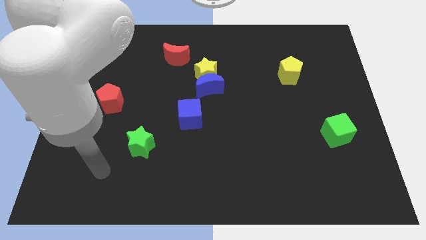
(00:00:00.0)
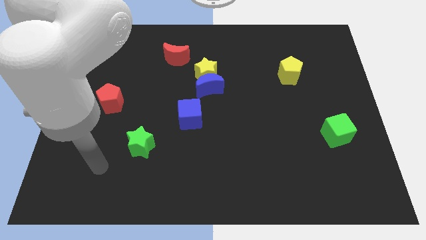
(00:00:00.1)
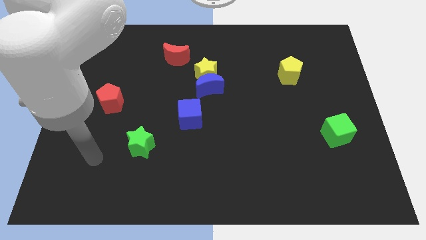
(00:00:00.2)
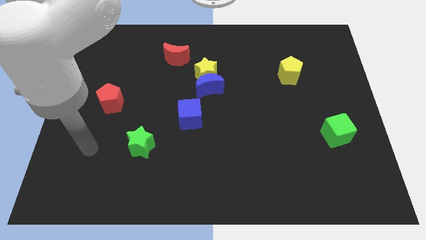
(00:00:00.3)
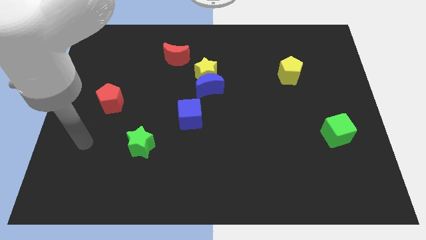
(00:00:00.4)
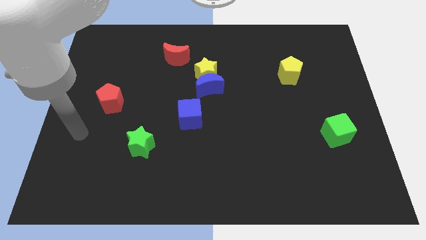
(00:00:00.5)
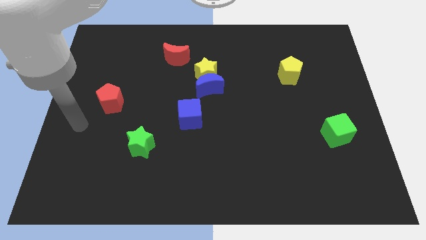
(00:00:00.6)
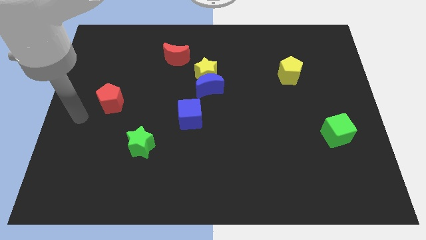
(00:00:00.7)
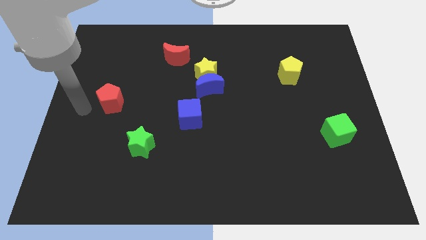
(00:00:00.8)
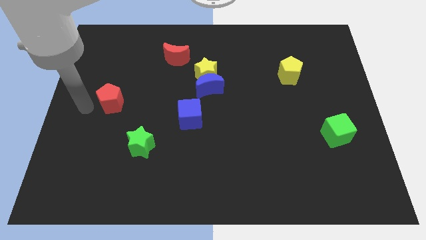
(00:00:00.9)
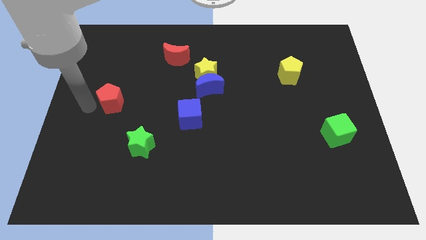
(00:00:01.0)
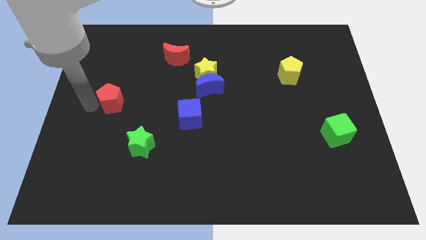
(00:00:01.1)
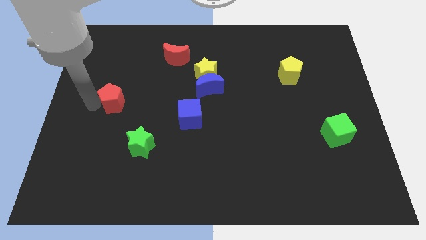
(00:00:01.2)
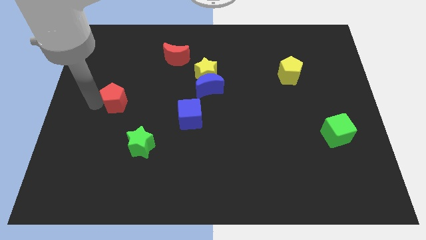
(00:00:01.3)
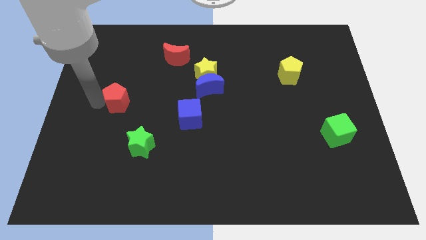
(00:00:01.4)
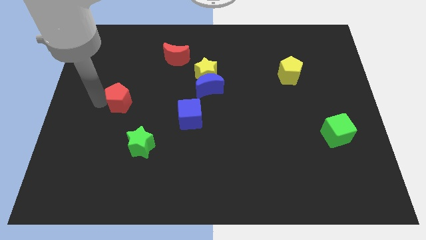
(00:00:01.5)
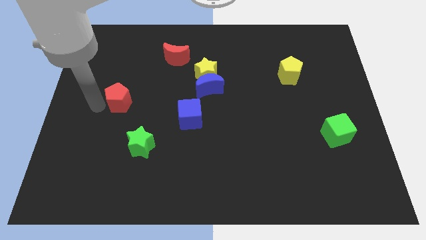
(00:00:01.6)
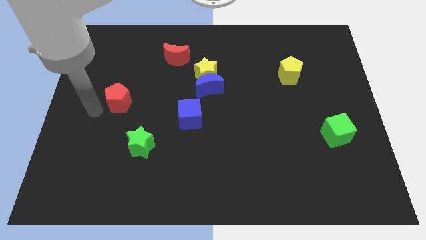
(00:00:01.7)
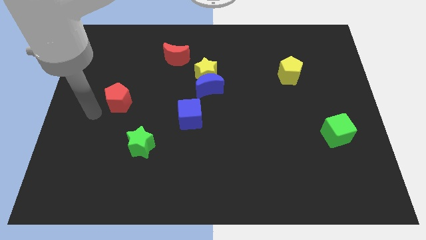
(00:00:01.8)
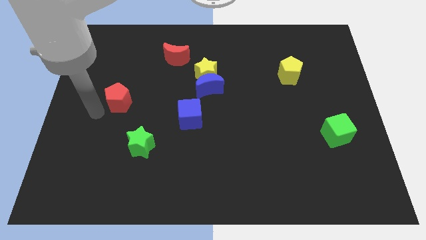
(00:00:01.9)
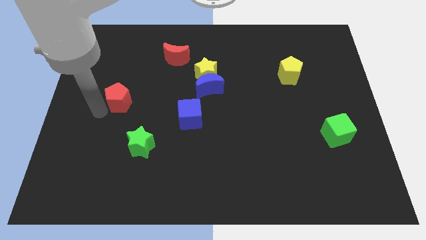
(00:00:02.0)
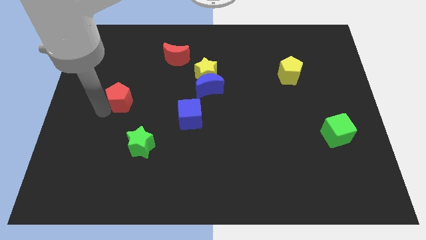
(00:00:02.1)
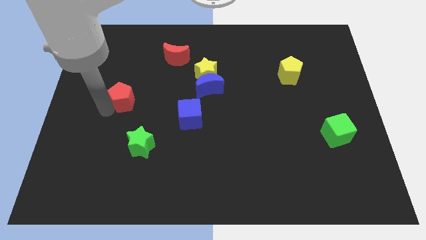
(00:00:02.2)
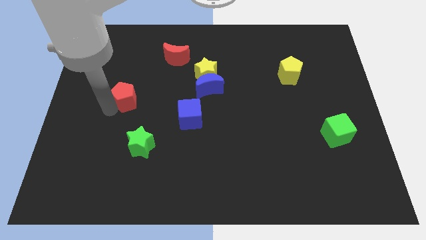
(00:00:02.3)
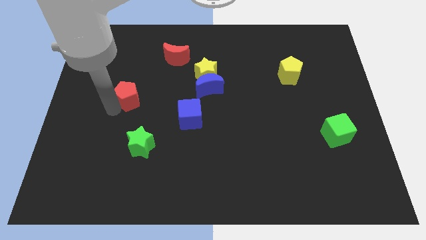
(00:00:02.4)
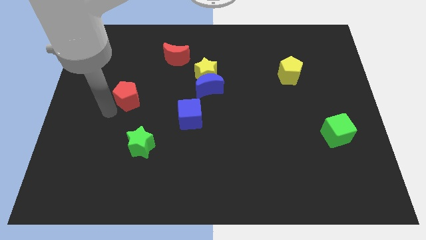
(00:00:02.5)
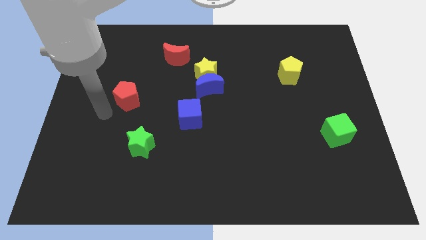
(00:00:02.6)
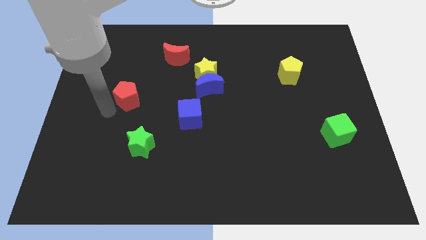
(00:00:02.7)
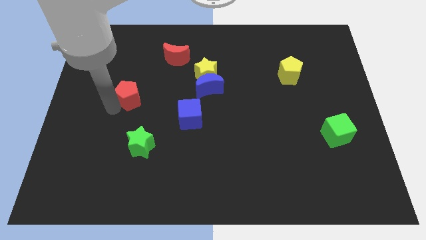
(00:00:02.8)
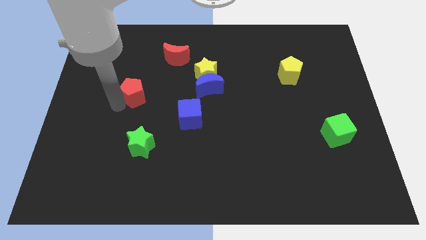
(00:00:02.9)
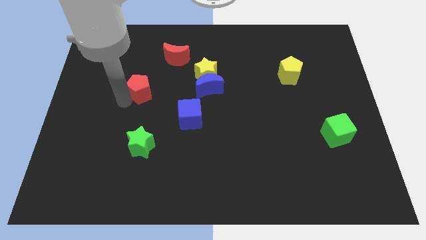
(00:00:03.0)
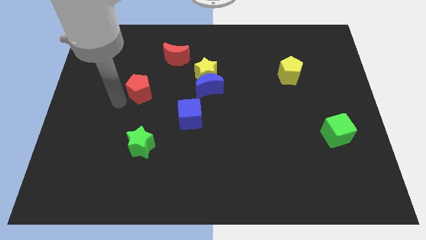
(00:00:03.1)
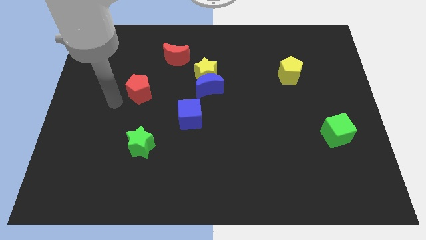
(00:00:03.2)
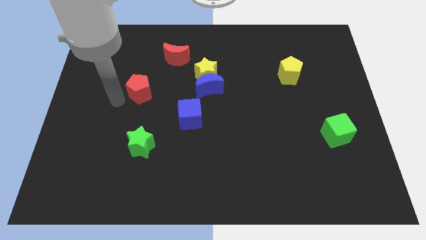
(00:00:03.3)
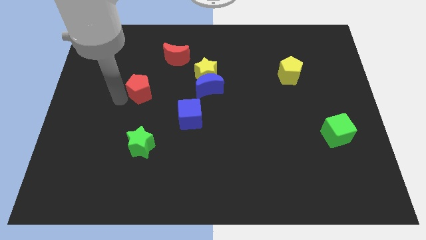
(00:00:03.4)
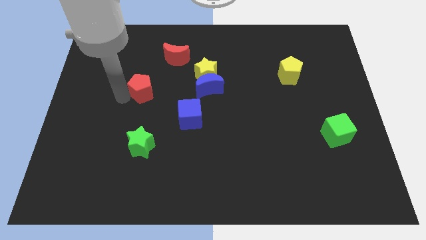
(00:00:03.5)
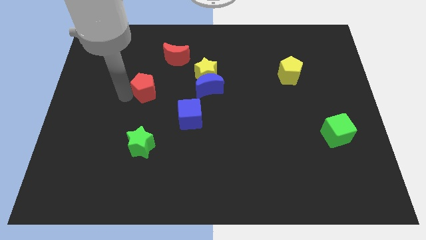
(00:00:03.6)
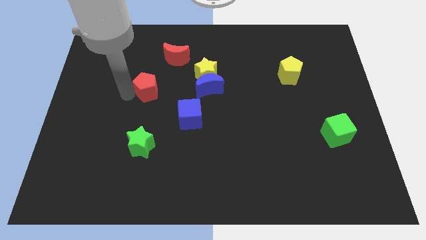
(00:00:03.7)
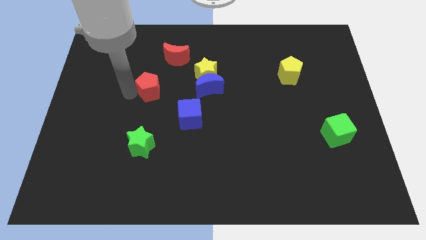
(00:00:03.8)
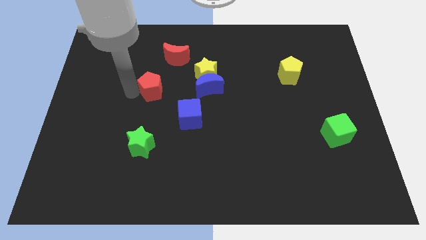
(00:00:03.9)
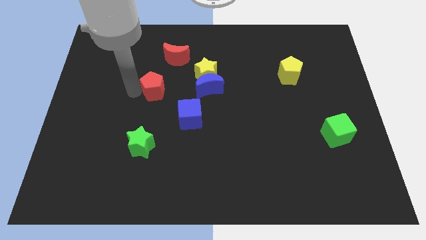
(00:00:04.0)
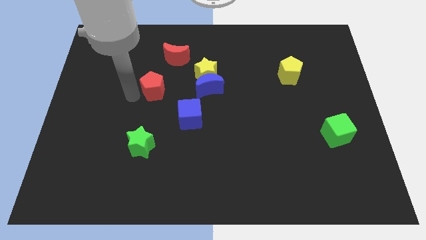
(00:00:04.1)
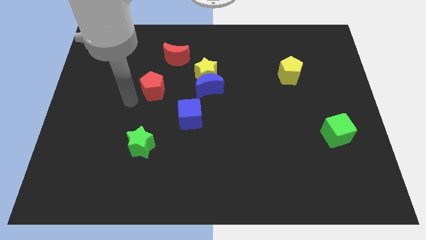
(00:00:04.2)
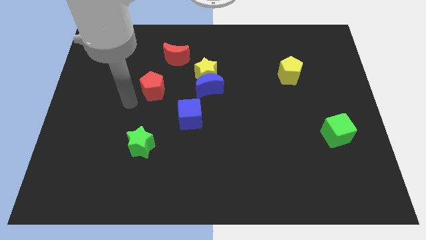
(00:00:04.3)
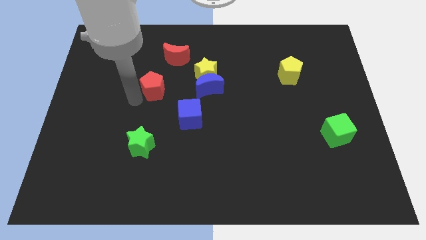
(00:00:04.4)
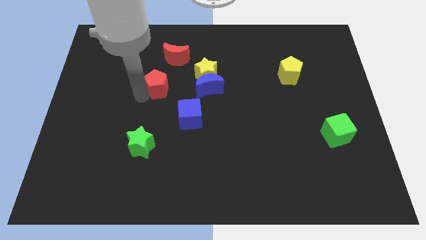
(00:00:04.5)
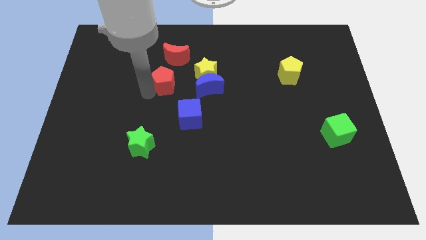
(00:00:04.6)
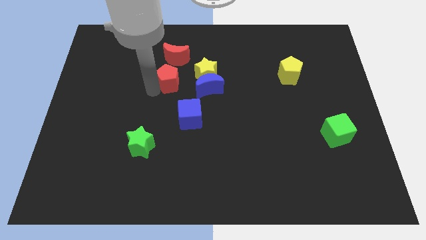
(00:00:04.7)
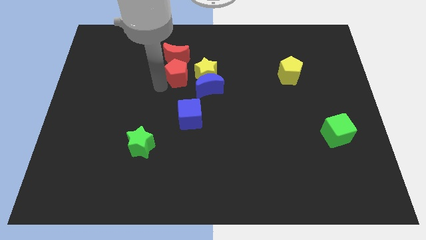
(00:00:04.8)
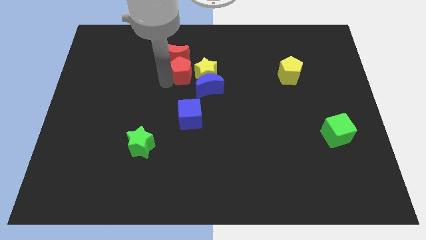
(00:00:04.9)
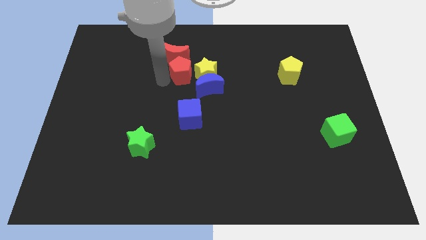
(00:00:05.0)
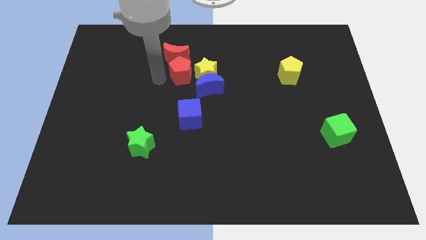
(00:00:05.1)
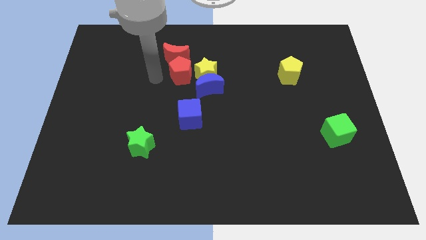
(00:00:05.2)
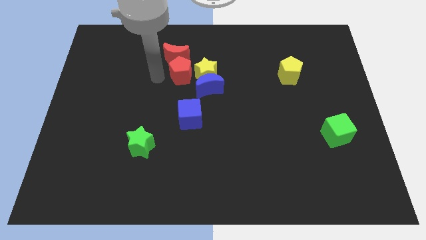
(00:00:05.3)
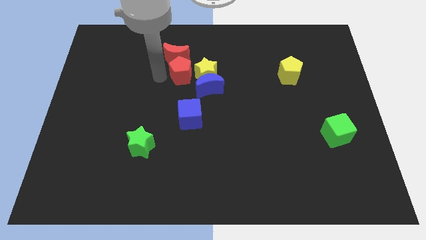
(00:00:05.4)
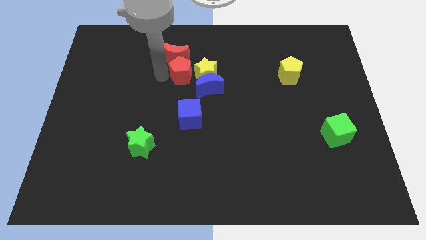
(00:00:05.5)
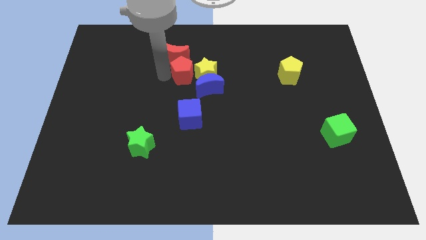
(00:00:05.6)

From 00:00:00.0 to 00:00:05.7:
slide the red pentagon next to the yellow star

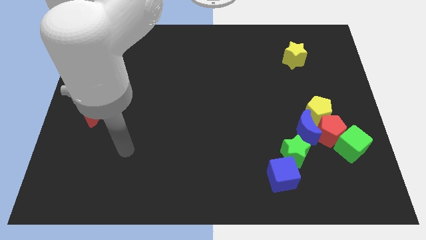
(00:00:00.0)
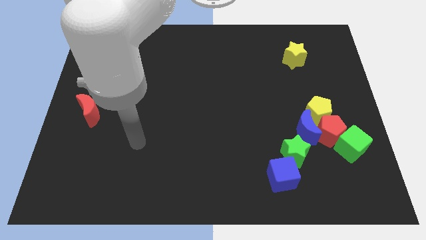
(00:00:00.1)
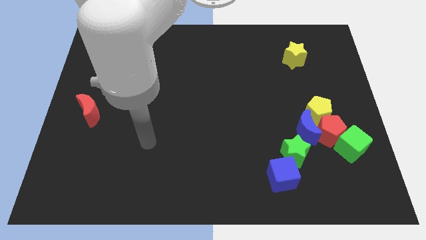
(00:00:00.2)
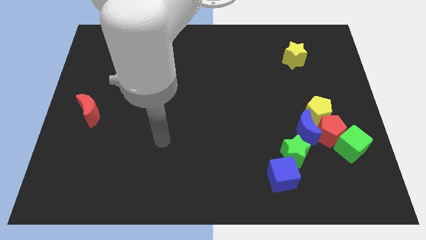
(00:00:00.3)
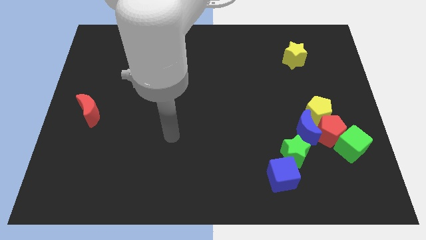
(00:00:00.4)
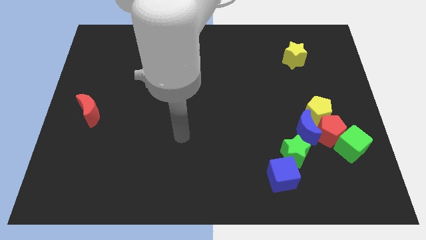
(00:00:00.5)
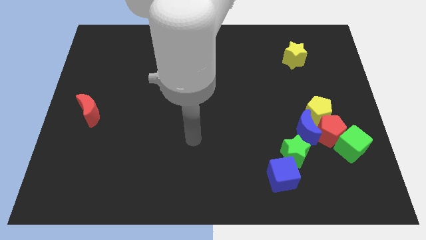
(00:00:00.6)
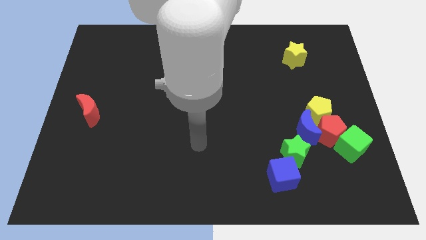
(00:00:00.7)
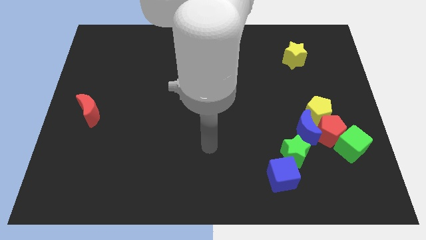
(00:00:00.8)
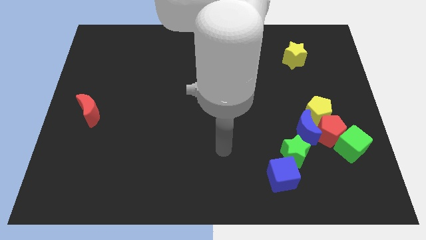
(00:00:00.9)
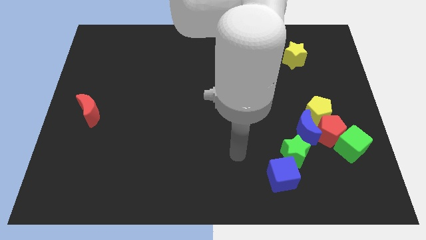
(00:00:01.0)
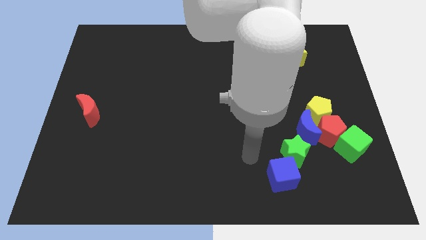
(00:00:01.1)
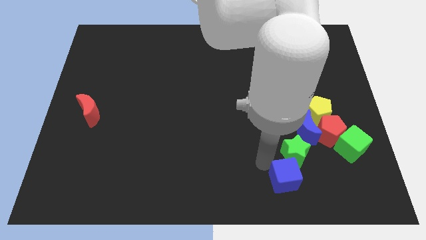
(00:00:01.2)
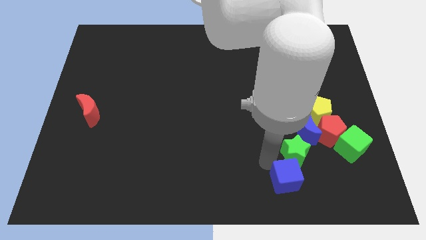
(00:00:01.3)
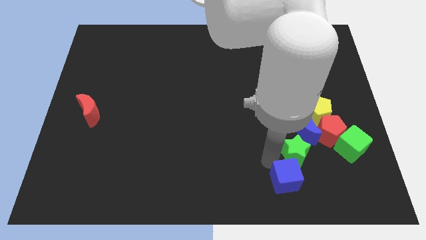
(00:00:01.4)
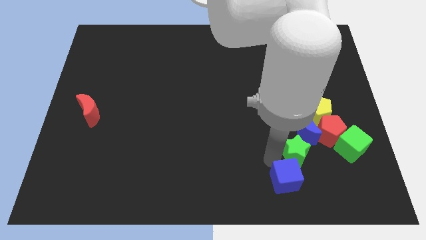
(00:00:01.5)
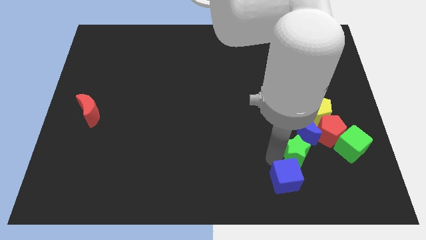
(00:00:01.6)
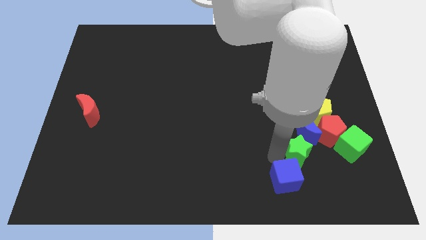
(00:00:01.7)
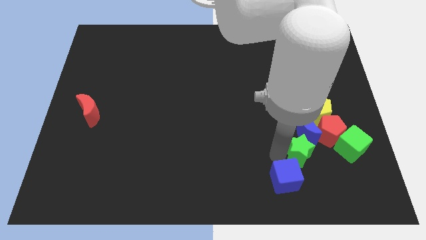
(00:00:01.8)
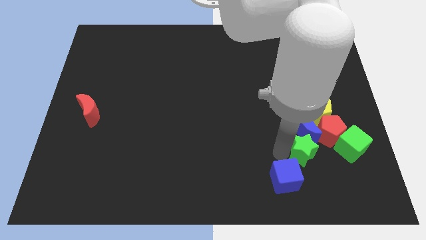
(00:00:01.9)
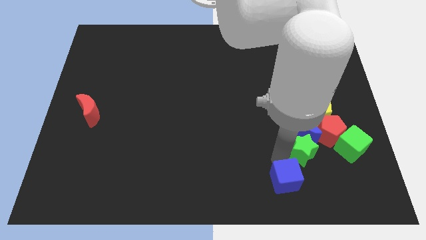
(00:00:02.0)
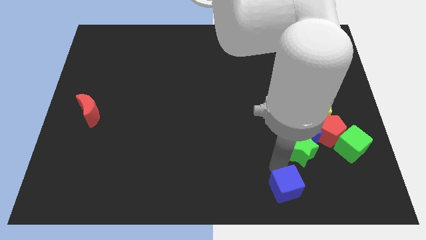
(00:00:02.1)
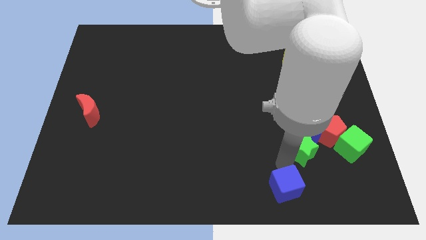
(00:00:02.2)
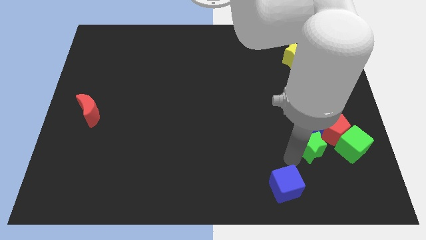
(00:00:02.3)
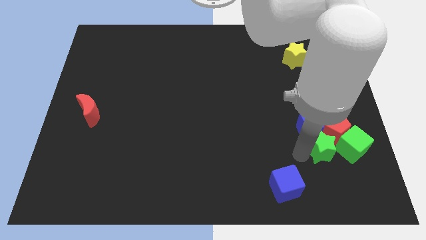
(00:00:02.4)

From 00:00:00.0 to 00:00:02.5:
move the green star close to the red pentagon
